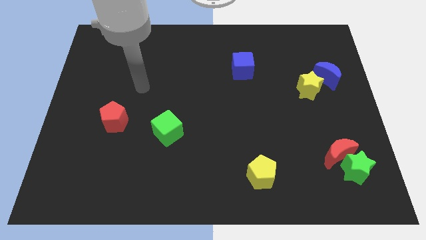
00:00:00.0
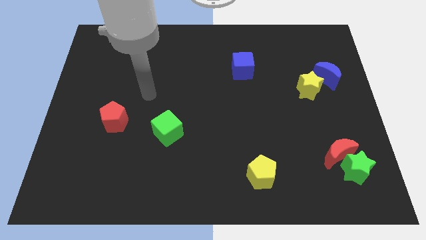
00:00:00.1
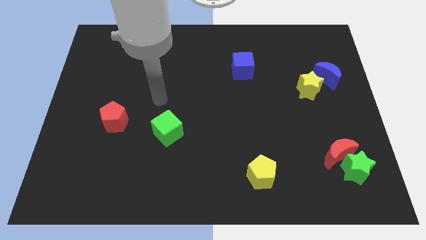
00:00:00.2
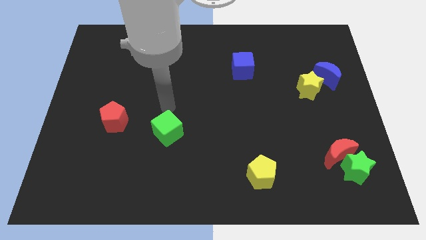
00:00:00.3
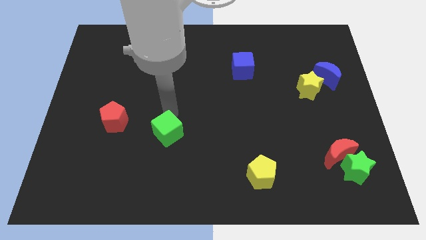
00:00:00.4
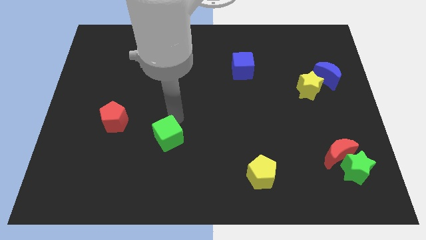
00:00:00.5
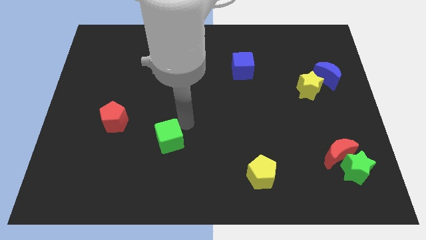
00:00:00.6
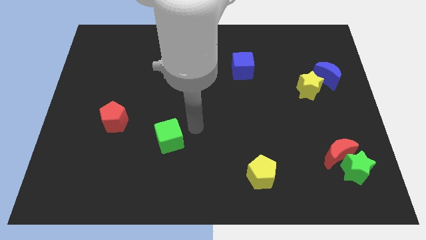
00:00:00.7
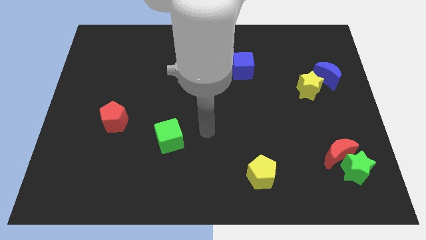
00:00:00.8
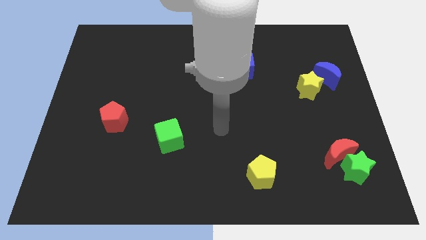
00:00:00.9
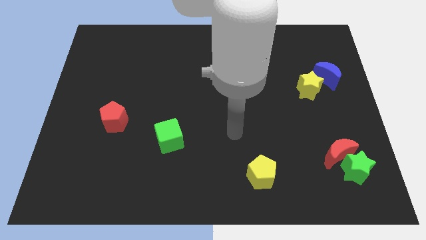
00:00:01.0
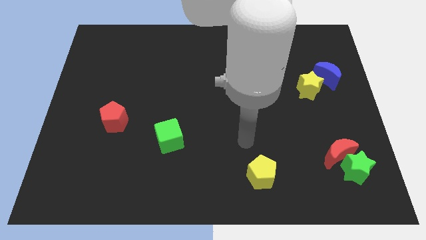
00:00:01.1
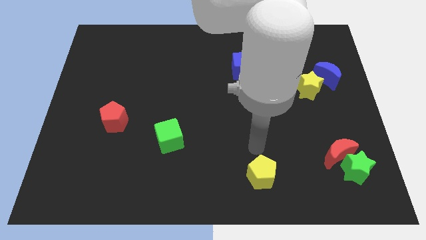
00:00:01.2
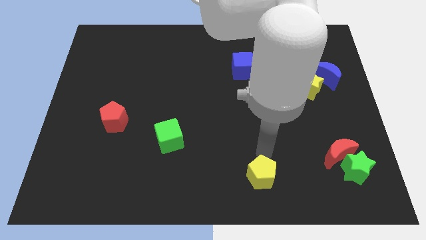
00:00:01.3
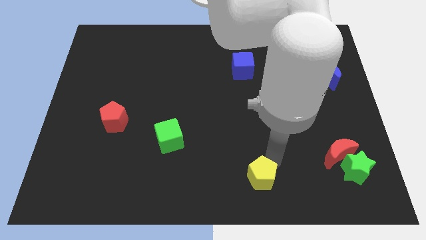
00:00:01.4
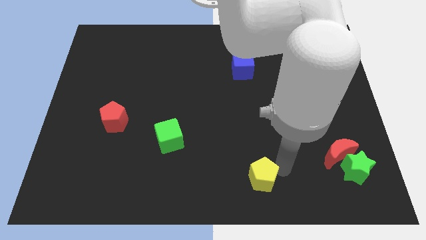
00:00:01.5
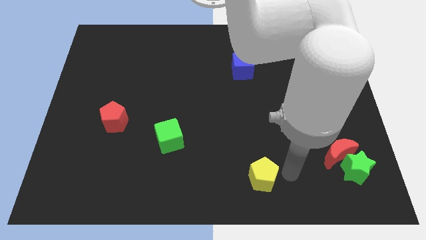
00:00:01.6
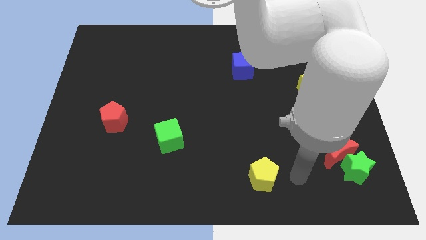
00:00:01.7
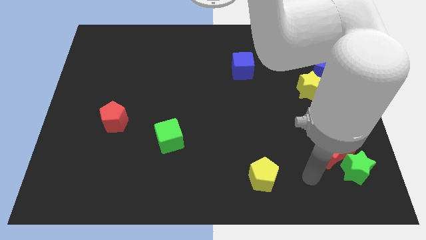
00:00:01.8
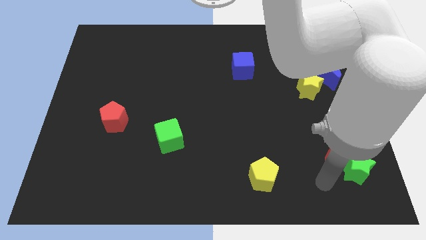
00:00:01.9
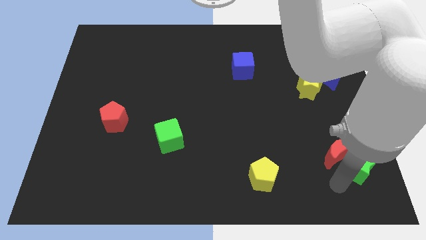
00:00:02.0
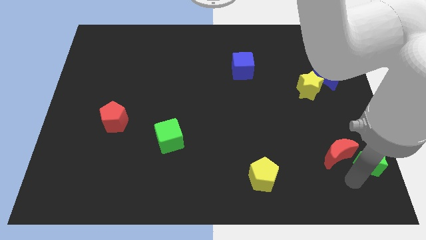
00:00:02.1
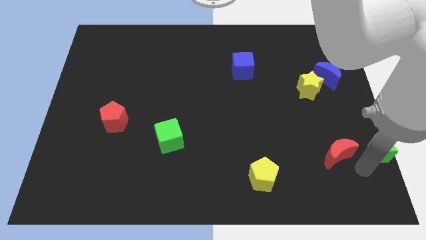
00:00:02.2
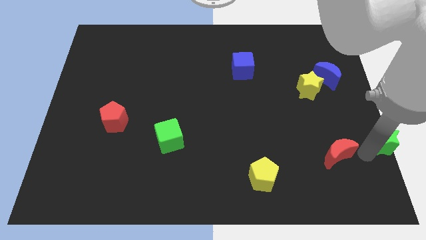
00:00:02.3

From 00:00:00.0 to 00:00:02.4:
separate the red moon from the green star

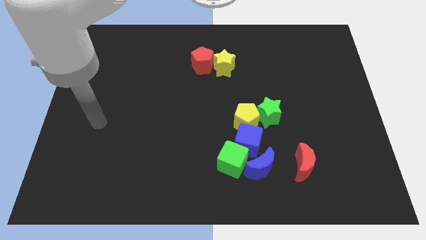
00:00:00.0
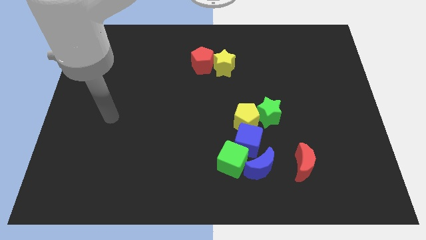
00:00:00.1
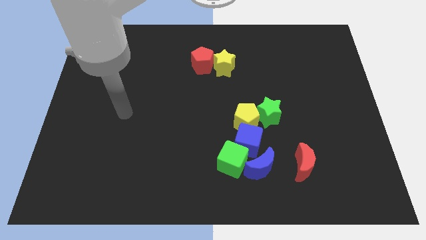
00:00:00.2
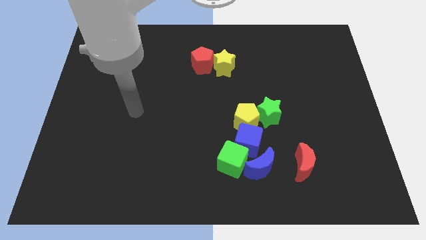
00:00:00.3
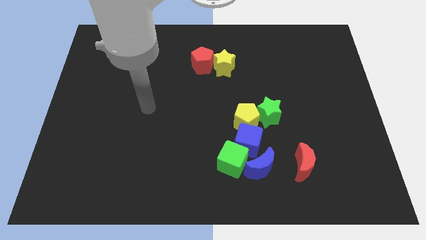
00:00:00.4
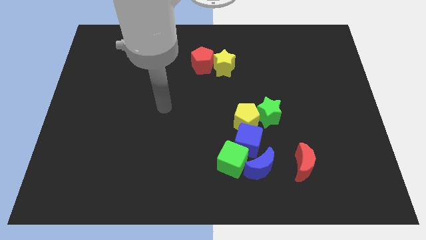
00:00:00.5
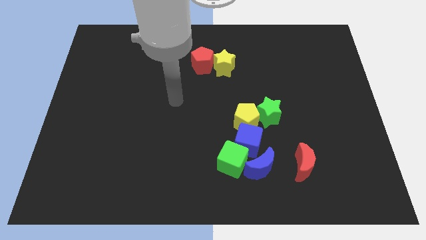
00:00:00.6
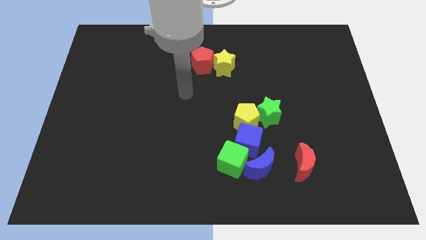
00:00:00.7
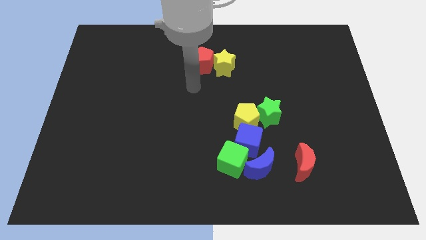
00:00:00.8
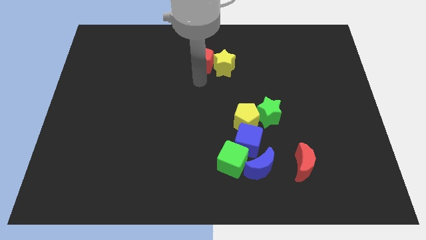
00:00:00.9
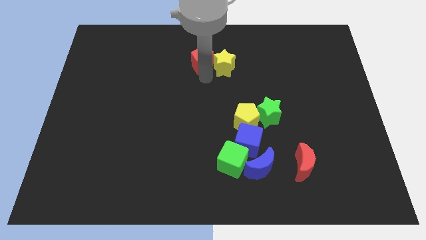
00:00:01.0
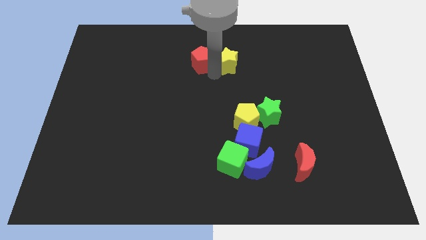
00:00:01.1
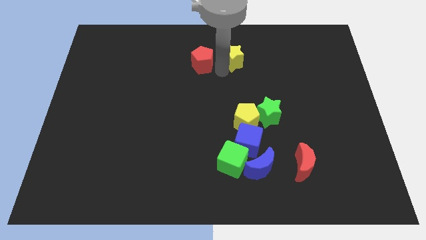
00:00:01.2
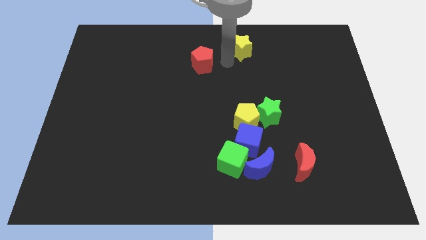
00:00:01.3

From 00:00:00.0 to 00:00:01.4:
pull the red pentagon apart from the yellow star

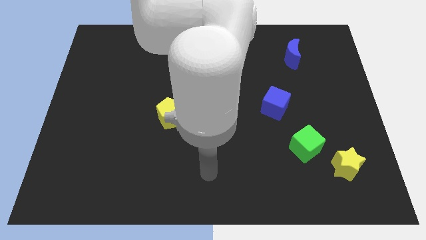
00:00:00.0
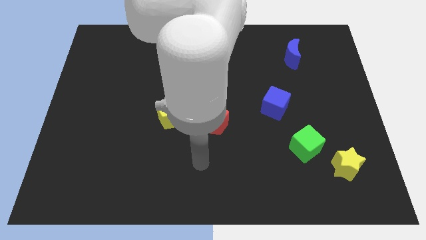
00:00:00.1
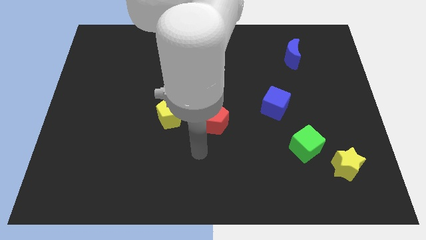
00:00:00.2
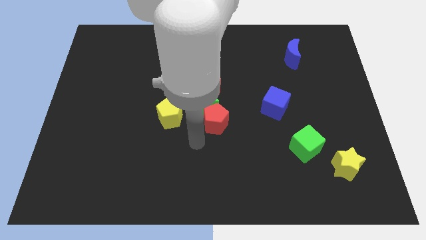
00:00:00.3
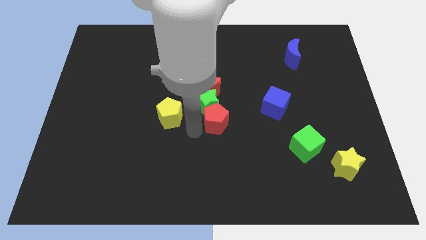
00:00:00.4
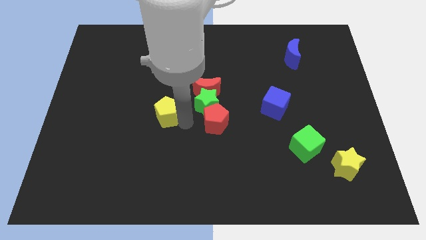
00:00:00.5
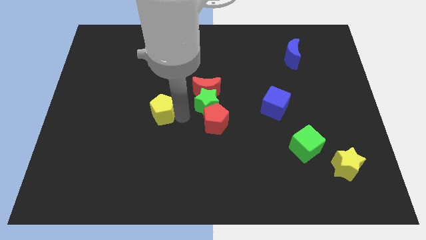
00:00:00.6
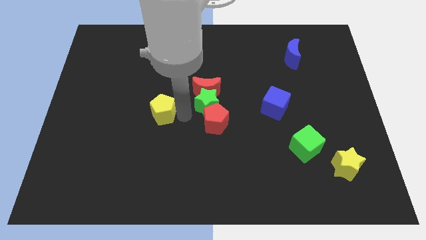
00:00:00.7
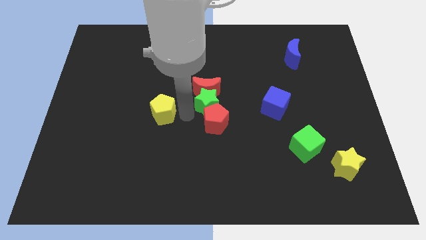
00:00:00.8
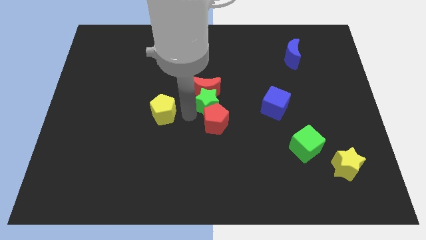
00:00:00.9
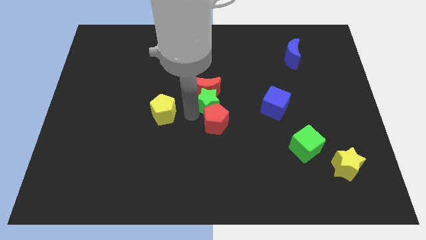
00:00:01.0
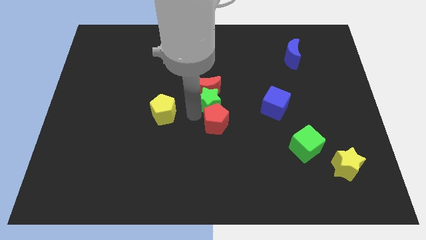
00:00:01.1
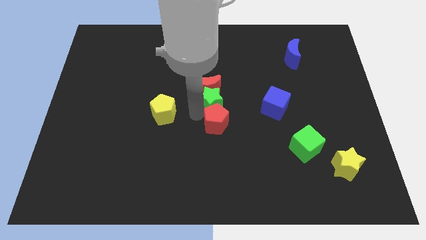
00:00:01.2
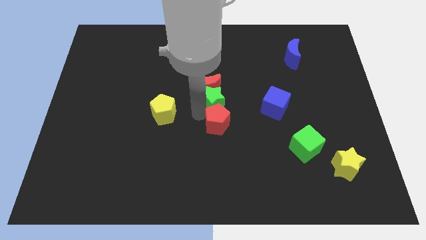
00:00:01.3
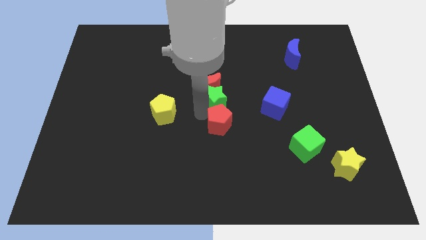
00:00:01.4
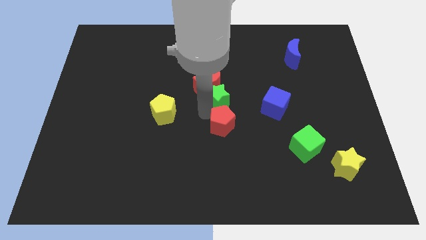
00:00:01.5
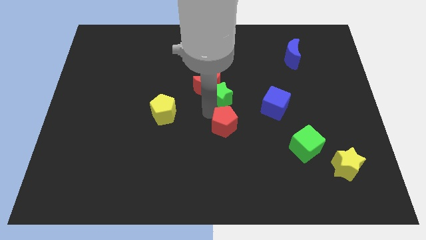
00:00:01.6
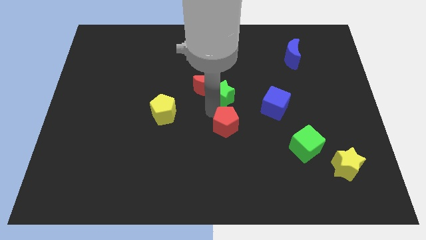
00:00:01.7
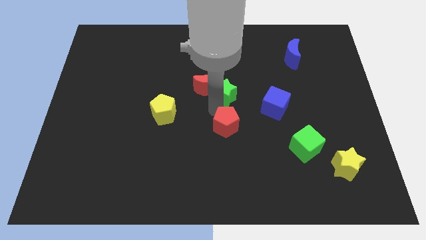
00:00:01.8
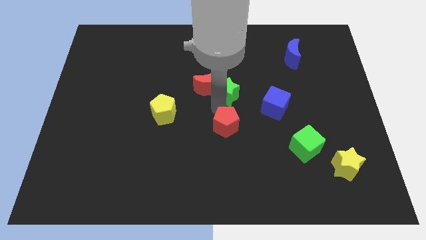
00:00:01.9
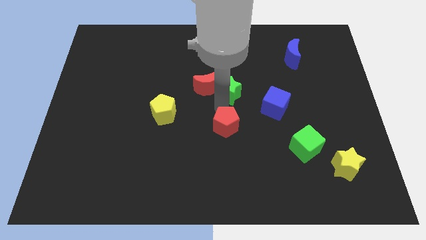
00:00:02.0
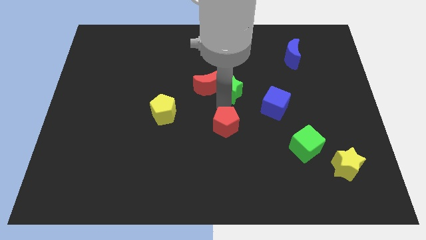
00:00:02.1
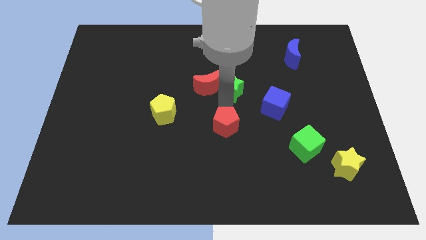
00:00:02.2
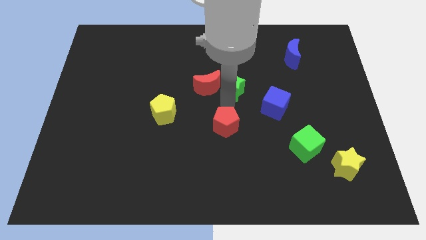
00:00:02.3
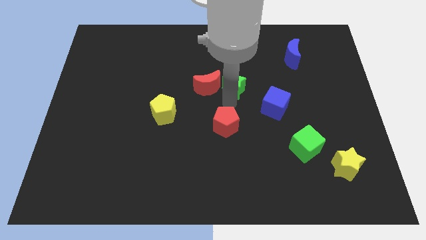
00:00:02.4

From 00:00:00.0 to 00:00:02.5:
move the green star away from the clump

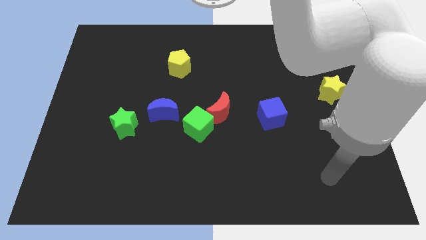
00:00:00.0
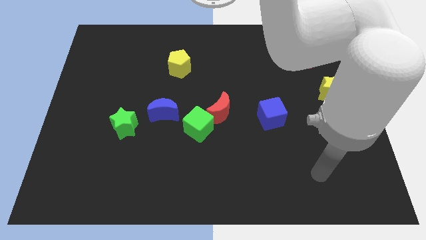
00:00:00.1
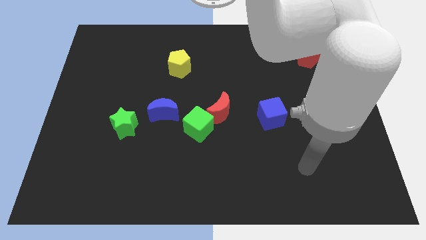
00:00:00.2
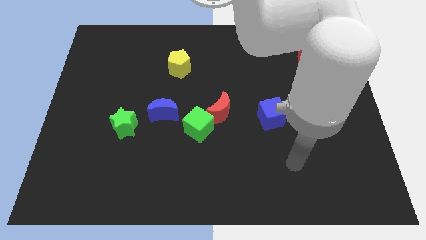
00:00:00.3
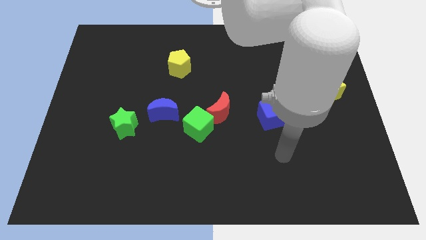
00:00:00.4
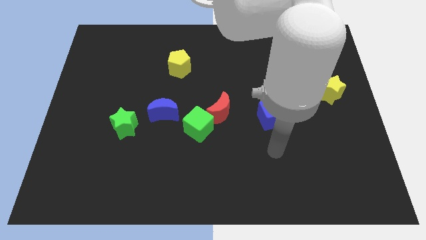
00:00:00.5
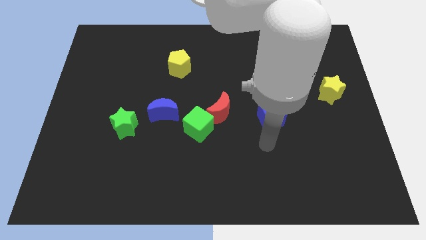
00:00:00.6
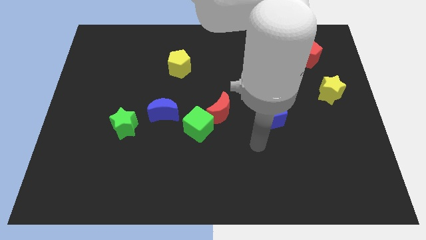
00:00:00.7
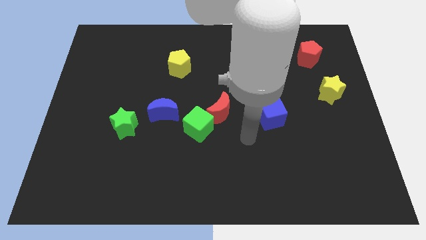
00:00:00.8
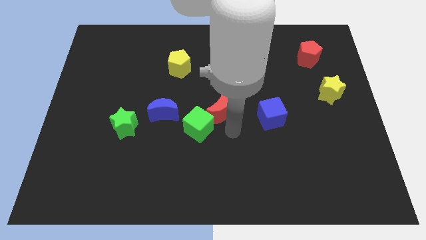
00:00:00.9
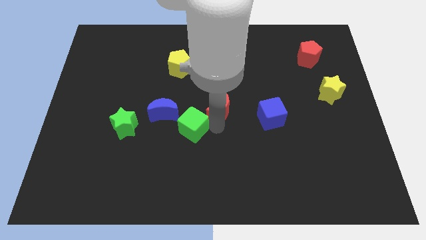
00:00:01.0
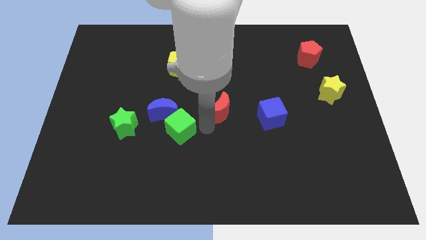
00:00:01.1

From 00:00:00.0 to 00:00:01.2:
separate the red moon from the green cube

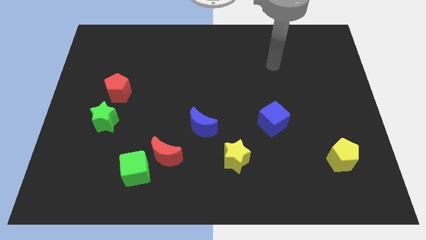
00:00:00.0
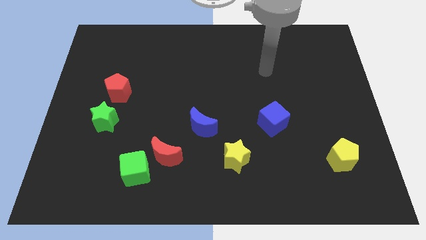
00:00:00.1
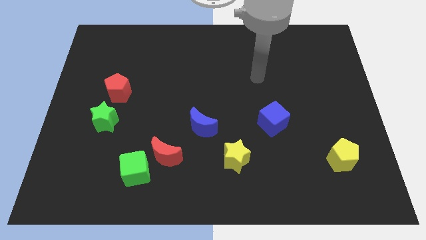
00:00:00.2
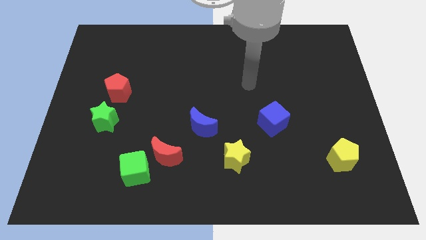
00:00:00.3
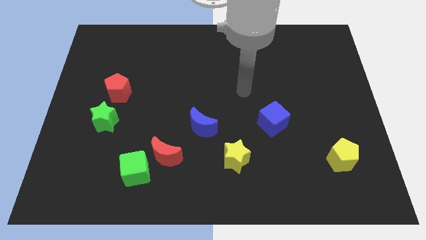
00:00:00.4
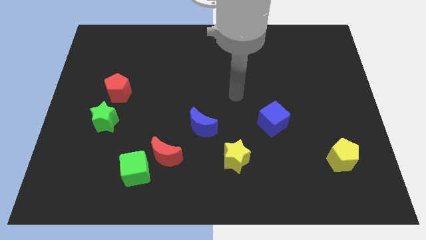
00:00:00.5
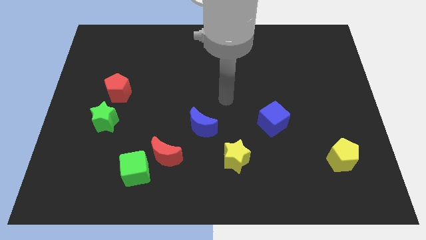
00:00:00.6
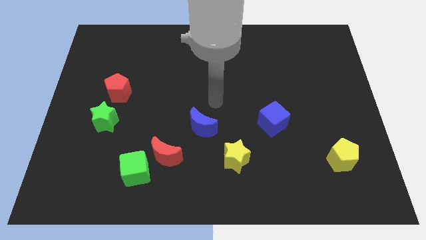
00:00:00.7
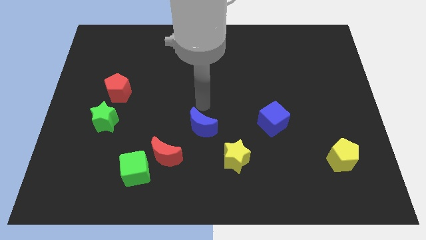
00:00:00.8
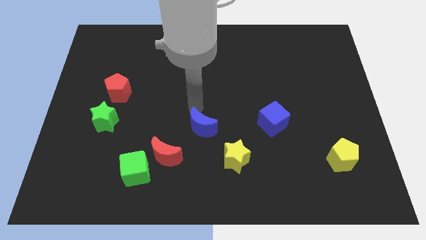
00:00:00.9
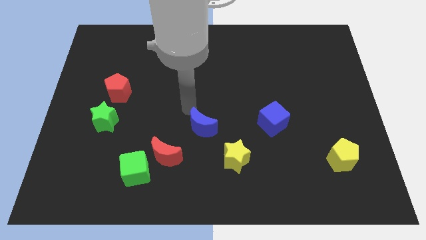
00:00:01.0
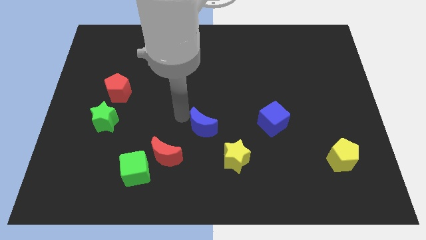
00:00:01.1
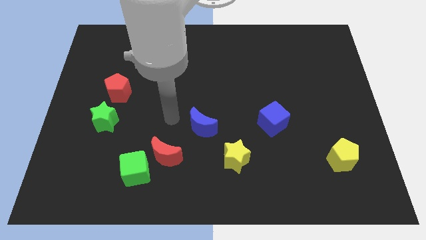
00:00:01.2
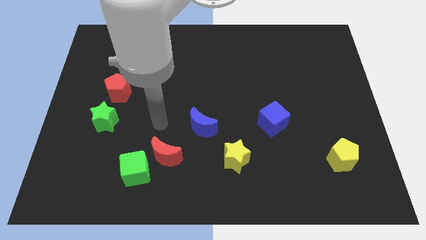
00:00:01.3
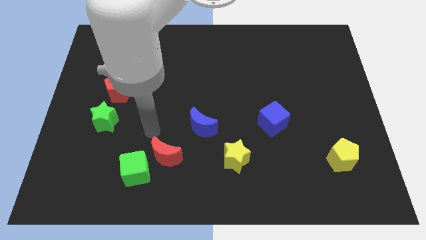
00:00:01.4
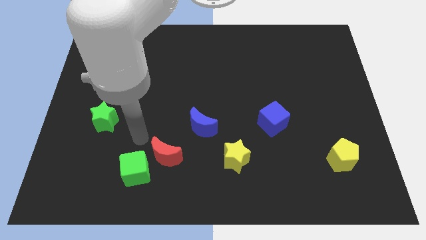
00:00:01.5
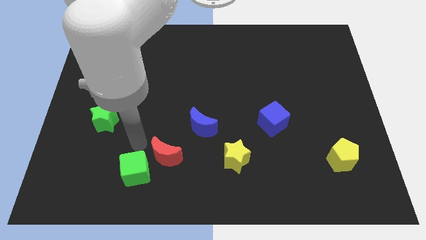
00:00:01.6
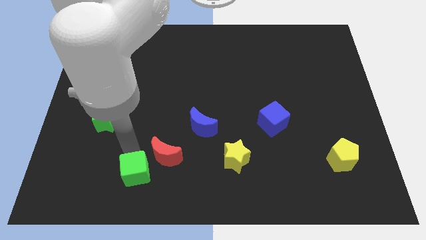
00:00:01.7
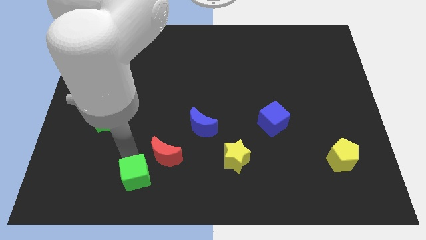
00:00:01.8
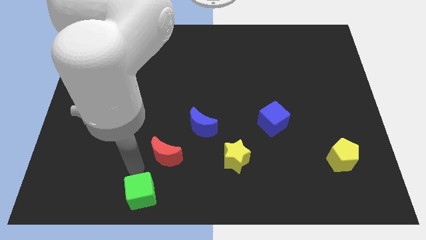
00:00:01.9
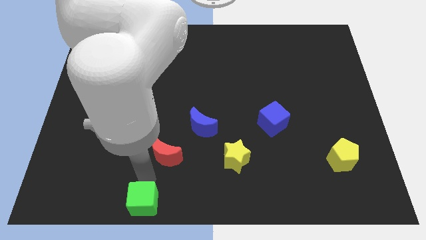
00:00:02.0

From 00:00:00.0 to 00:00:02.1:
move the red moon away from the green cube
